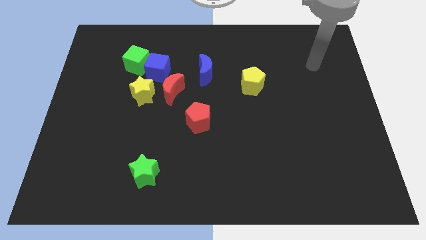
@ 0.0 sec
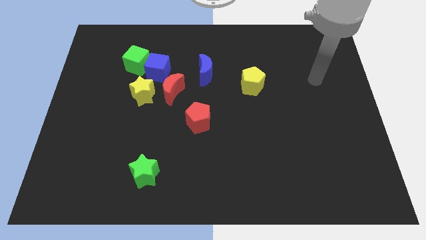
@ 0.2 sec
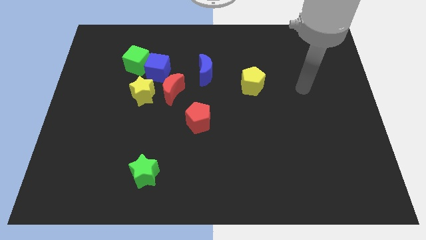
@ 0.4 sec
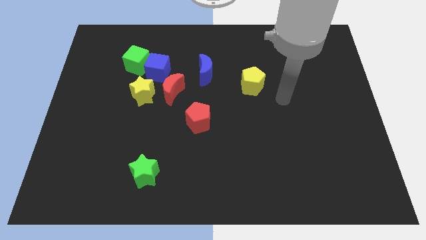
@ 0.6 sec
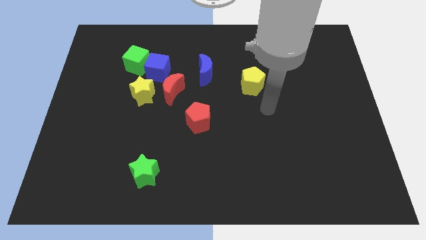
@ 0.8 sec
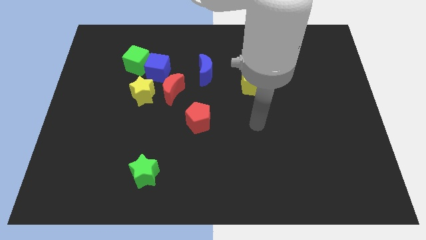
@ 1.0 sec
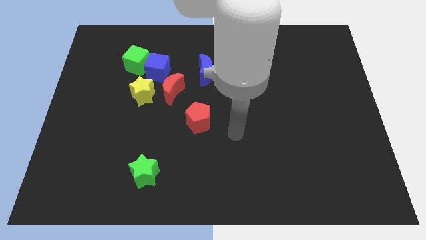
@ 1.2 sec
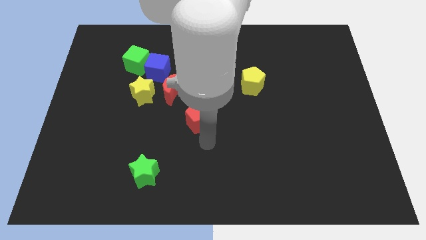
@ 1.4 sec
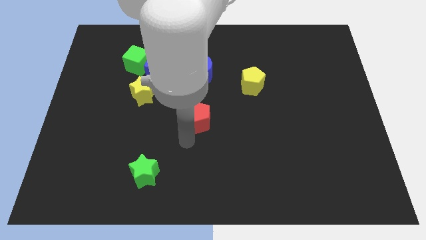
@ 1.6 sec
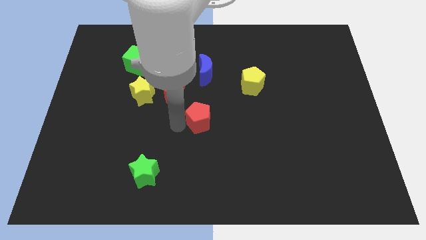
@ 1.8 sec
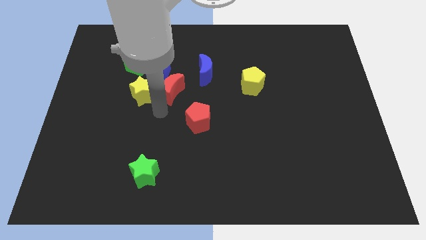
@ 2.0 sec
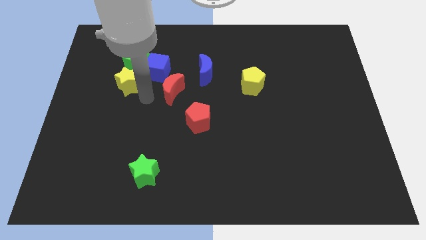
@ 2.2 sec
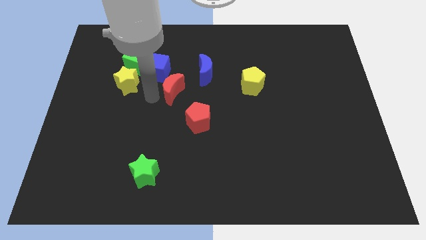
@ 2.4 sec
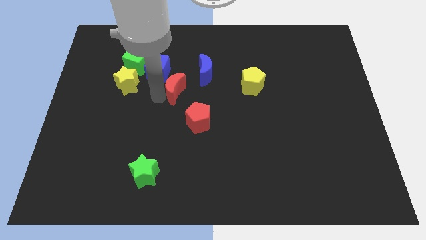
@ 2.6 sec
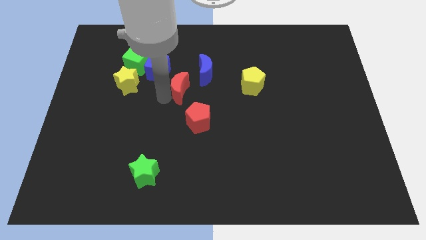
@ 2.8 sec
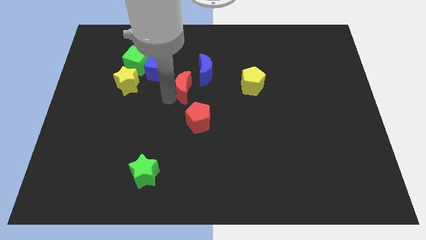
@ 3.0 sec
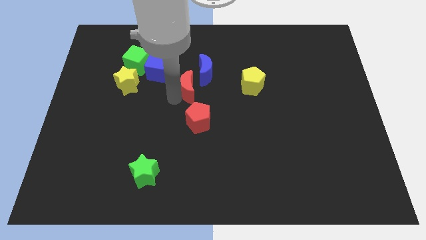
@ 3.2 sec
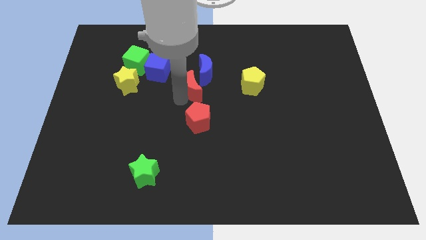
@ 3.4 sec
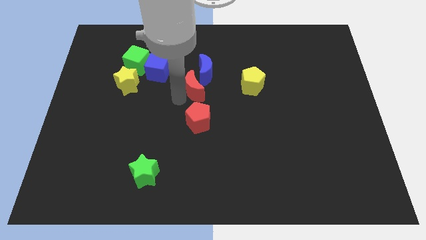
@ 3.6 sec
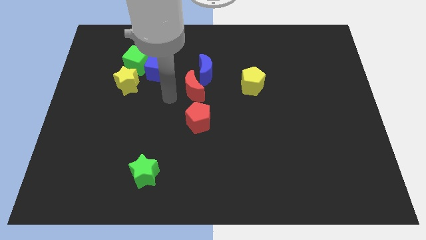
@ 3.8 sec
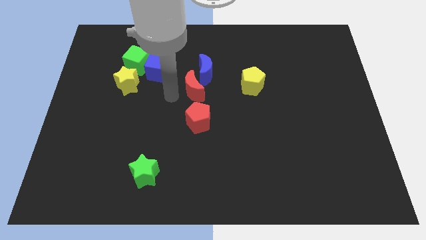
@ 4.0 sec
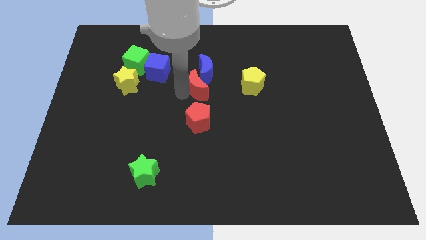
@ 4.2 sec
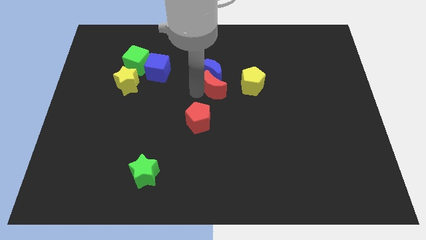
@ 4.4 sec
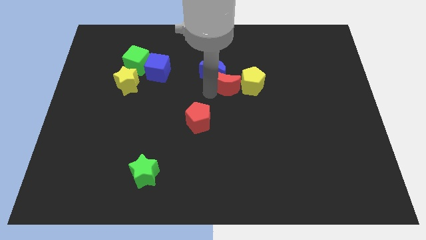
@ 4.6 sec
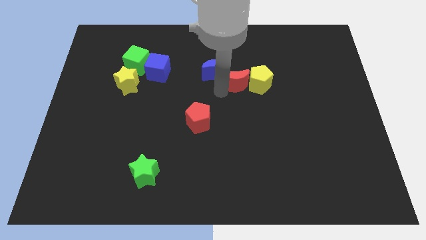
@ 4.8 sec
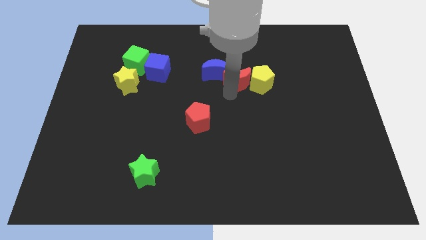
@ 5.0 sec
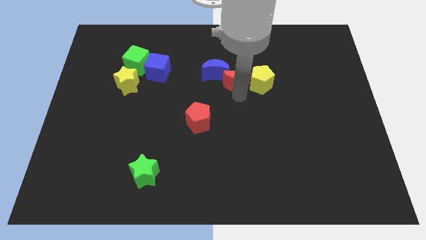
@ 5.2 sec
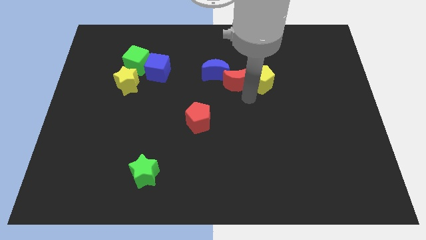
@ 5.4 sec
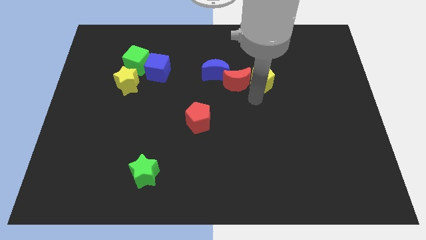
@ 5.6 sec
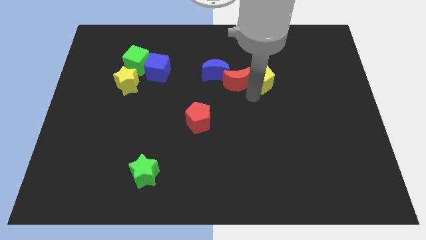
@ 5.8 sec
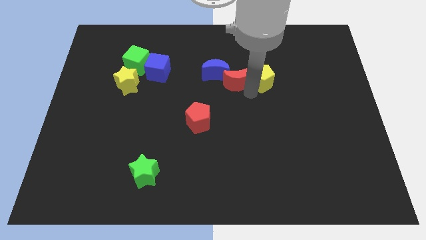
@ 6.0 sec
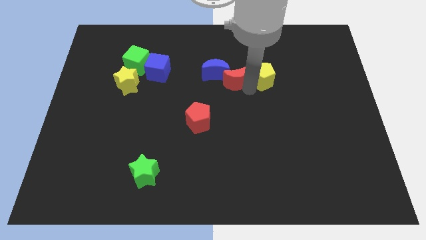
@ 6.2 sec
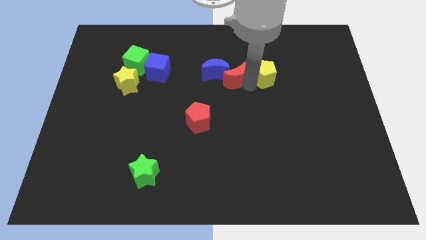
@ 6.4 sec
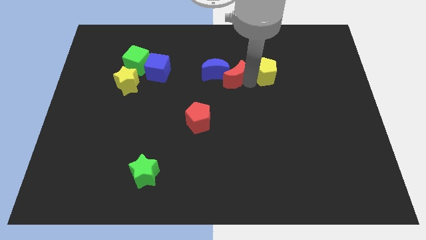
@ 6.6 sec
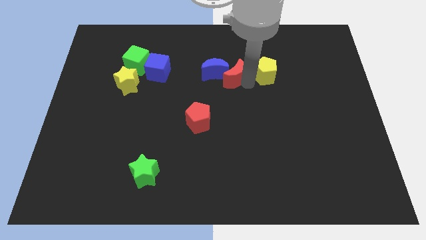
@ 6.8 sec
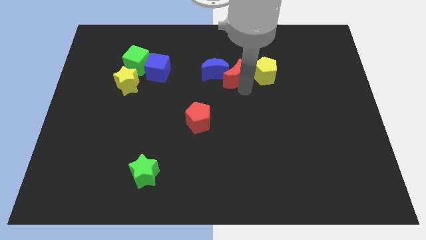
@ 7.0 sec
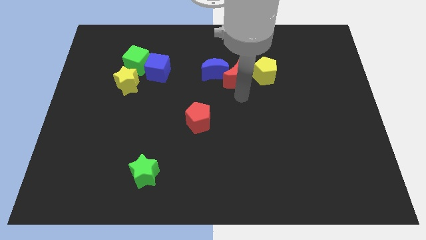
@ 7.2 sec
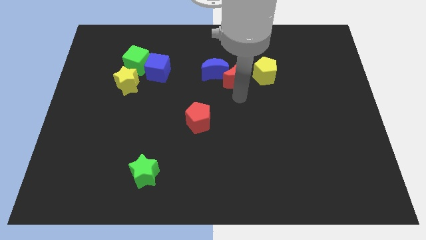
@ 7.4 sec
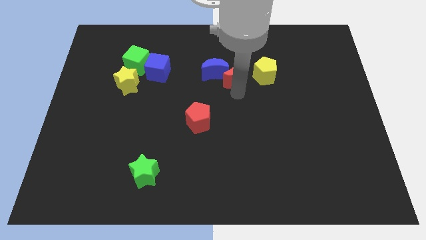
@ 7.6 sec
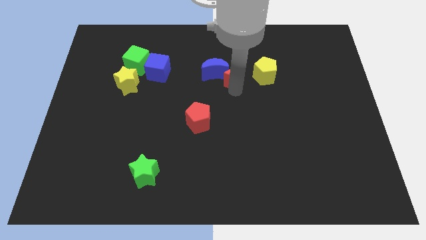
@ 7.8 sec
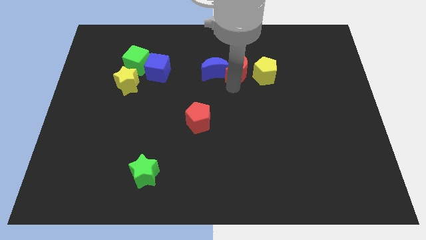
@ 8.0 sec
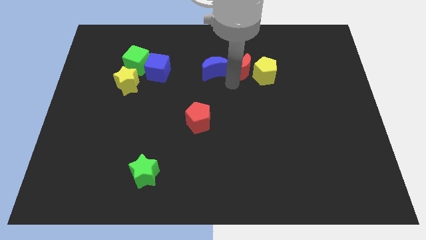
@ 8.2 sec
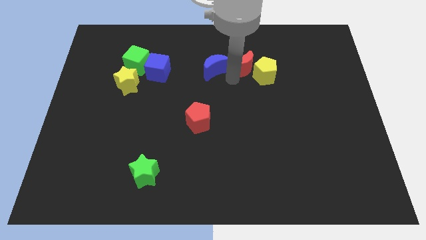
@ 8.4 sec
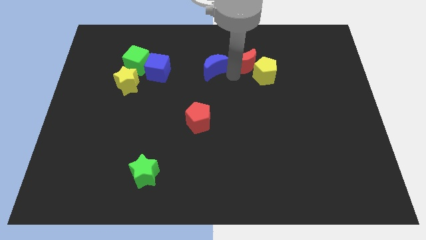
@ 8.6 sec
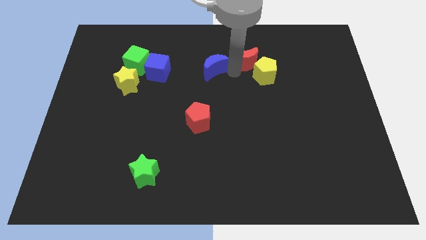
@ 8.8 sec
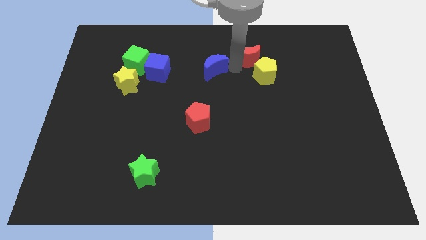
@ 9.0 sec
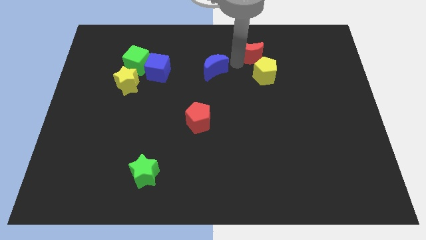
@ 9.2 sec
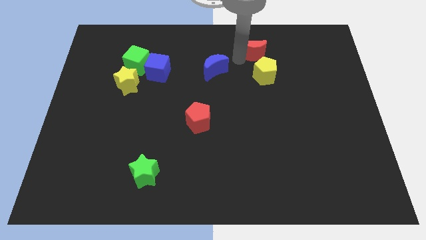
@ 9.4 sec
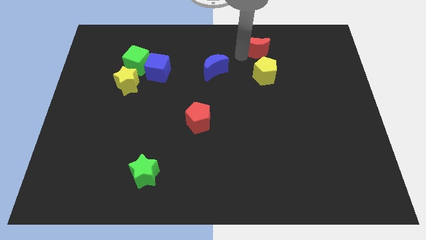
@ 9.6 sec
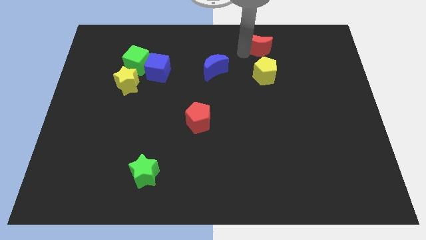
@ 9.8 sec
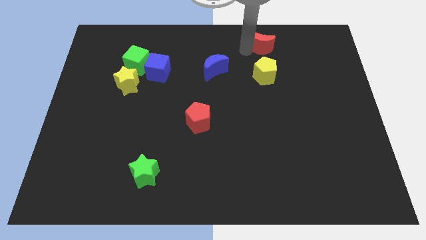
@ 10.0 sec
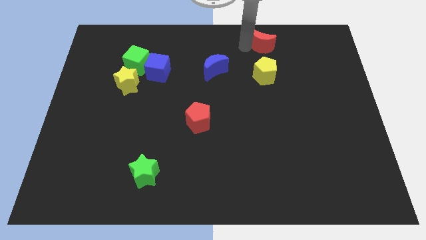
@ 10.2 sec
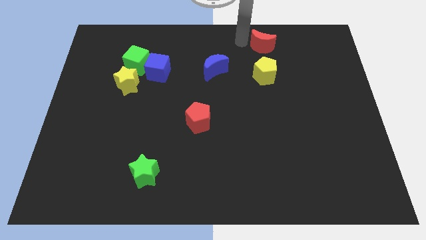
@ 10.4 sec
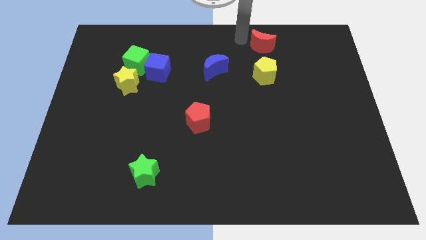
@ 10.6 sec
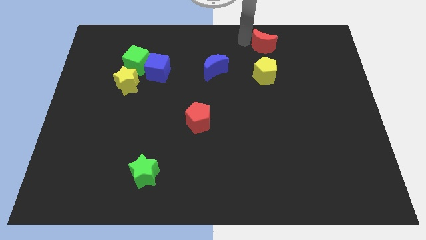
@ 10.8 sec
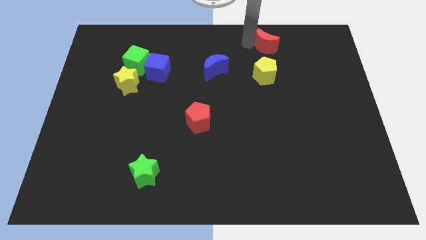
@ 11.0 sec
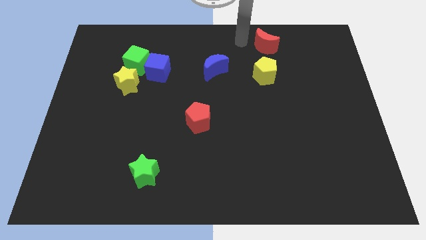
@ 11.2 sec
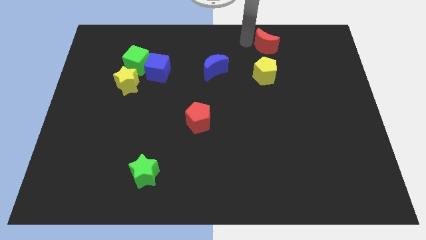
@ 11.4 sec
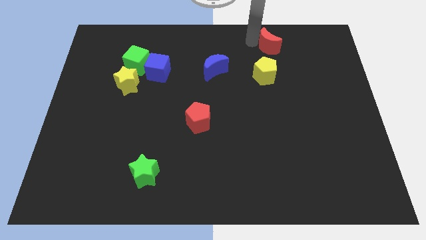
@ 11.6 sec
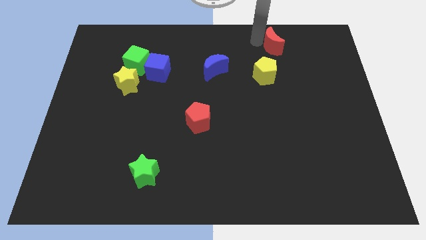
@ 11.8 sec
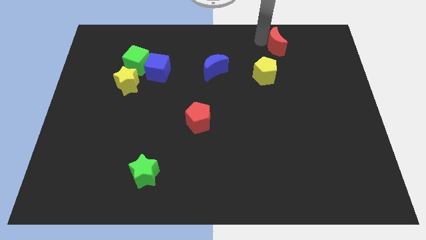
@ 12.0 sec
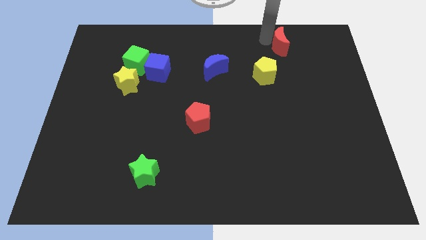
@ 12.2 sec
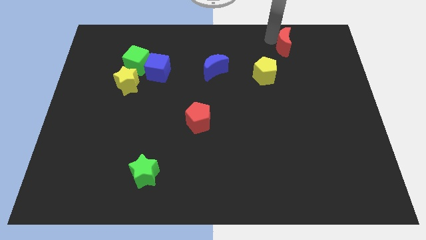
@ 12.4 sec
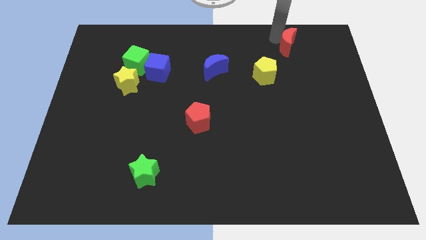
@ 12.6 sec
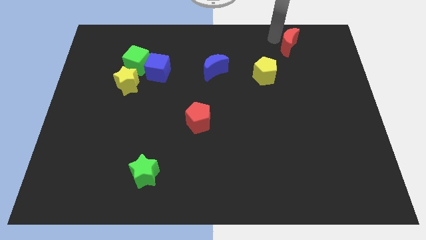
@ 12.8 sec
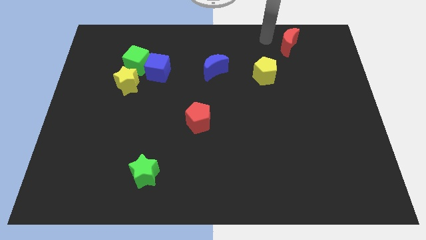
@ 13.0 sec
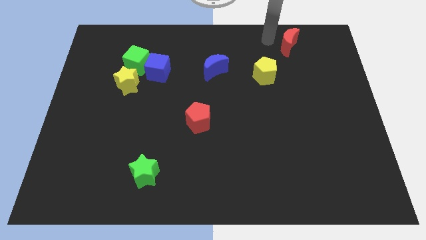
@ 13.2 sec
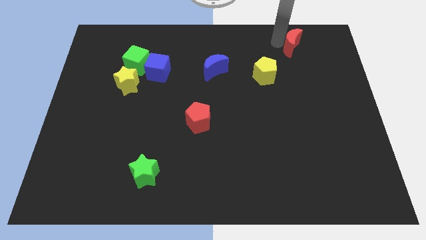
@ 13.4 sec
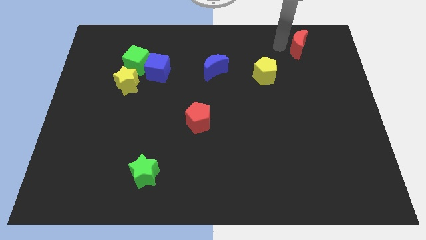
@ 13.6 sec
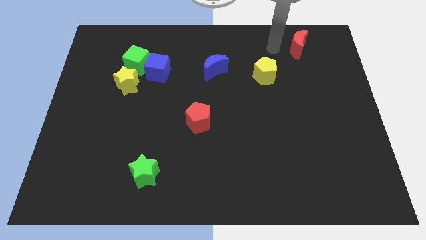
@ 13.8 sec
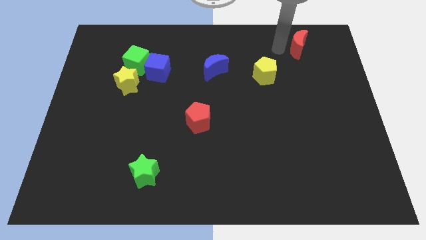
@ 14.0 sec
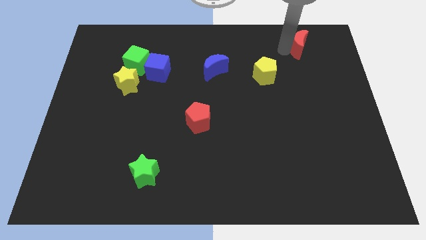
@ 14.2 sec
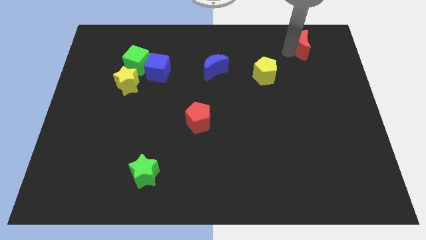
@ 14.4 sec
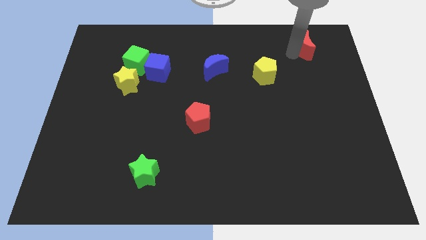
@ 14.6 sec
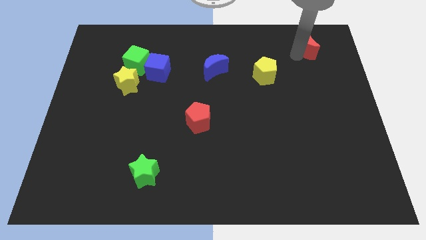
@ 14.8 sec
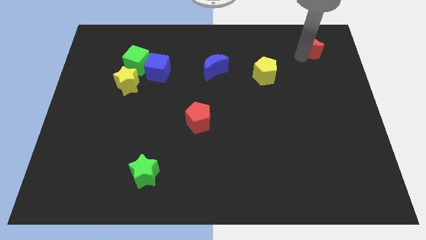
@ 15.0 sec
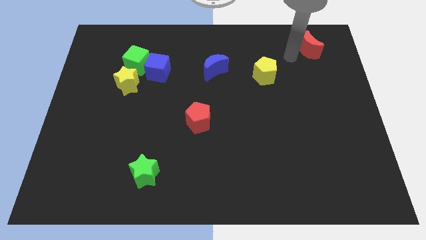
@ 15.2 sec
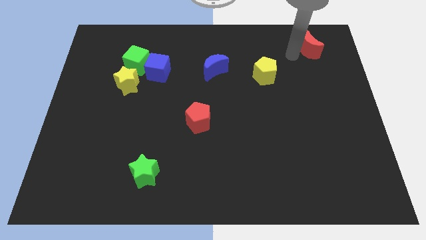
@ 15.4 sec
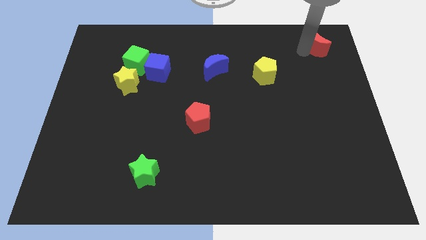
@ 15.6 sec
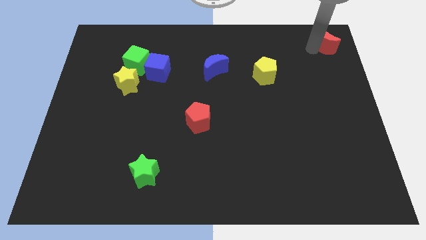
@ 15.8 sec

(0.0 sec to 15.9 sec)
slide the red moon to the upper right corner
